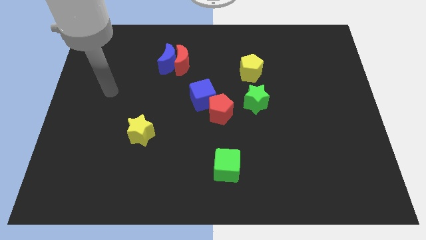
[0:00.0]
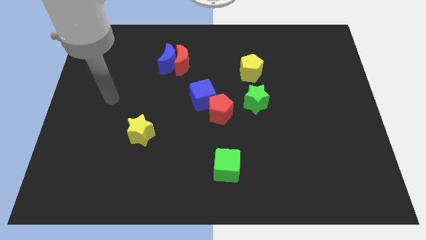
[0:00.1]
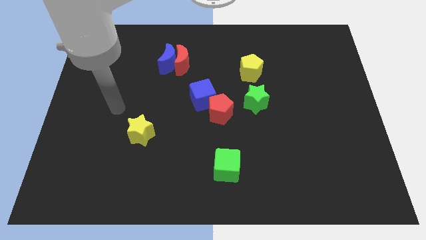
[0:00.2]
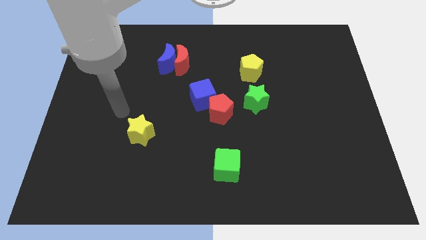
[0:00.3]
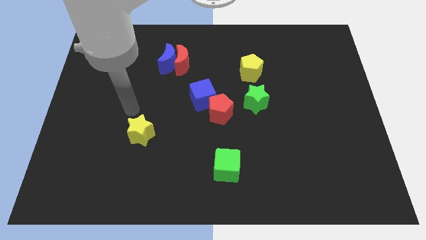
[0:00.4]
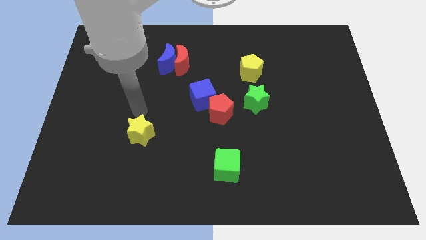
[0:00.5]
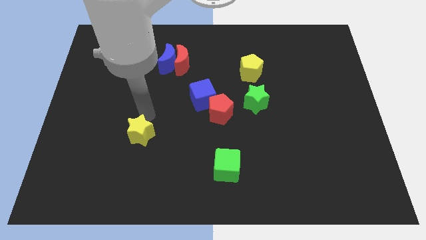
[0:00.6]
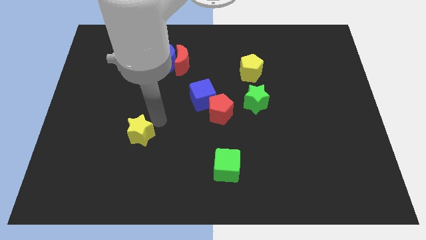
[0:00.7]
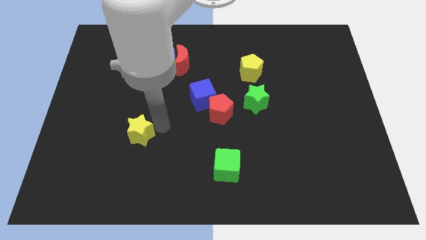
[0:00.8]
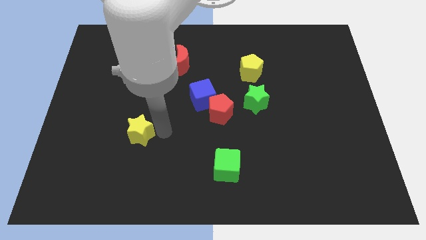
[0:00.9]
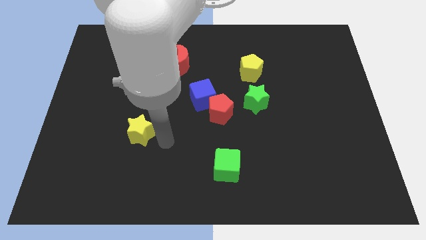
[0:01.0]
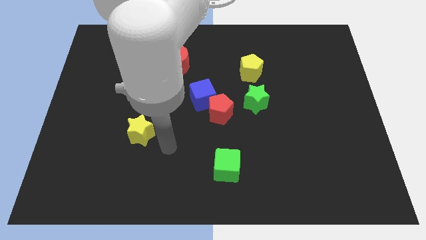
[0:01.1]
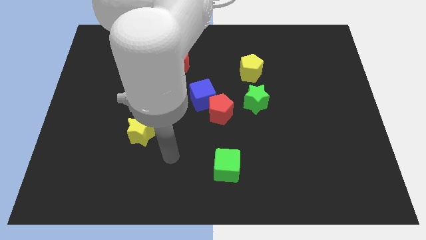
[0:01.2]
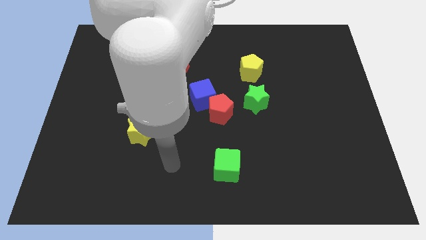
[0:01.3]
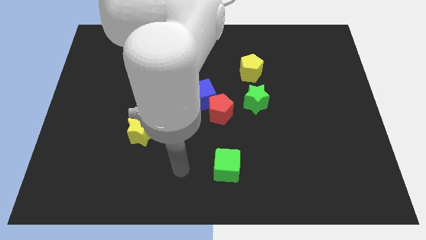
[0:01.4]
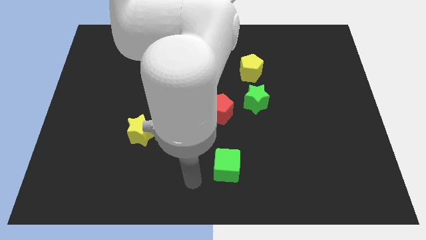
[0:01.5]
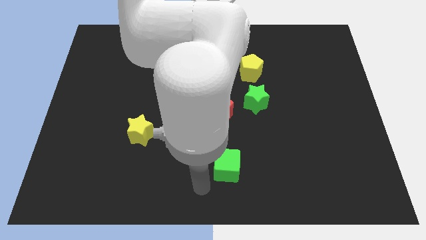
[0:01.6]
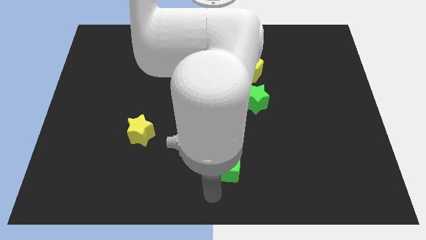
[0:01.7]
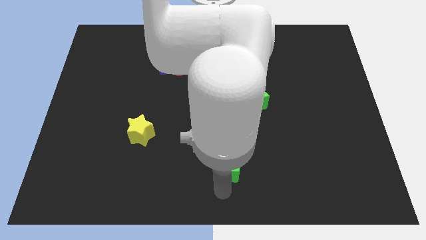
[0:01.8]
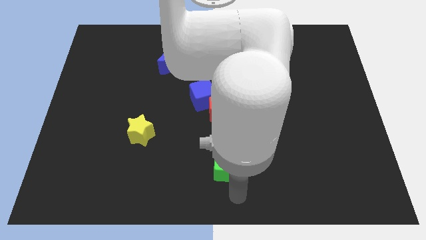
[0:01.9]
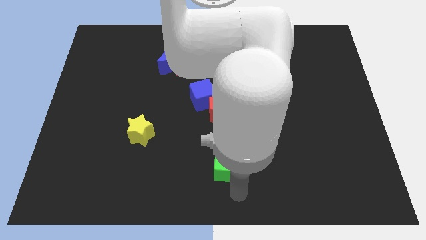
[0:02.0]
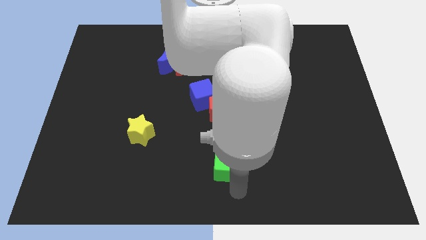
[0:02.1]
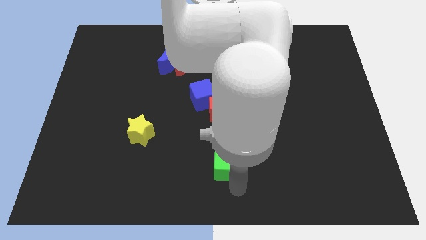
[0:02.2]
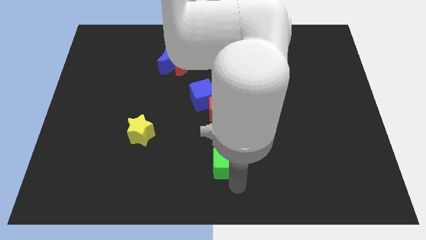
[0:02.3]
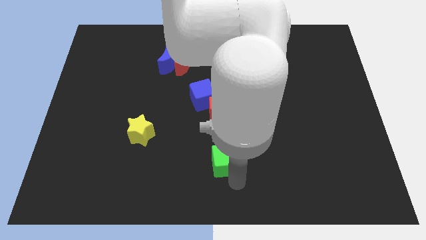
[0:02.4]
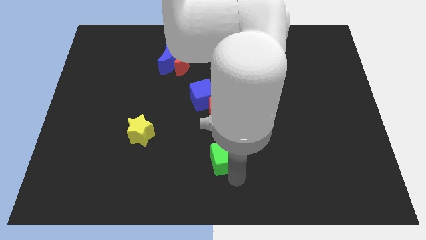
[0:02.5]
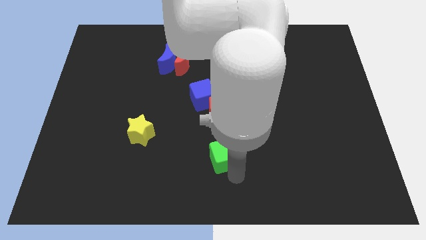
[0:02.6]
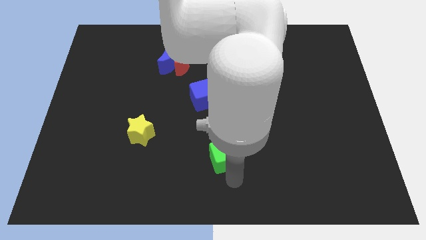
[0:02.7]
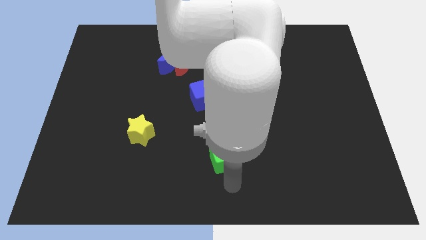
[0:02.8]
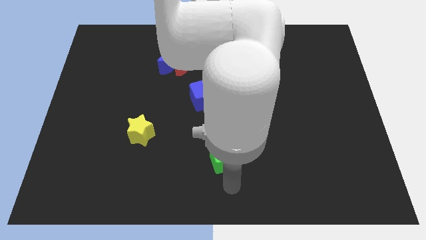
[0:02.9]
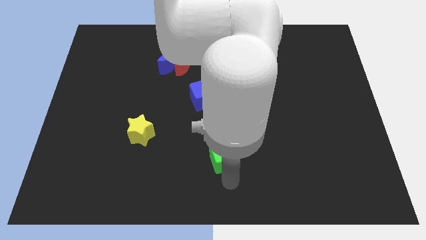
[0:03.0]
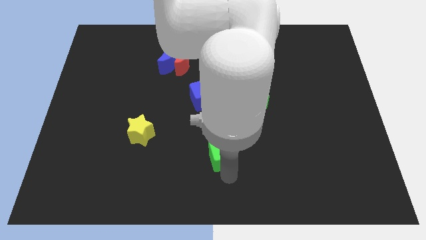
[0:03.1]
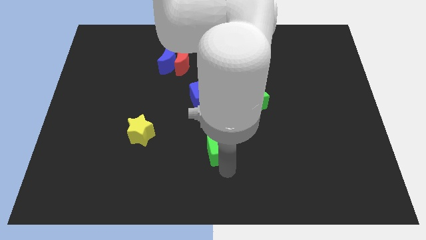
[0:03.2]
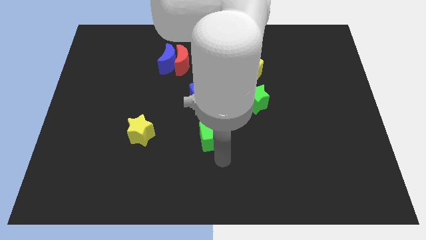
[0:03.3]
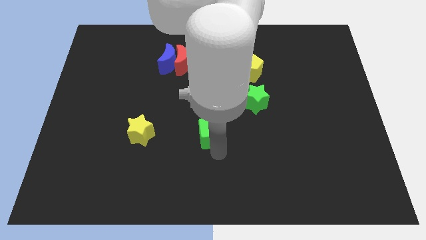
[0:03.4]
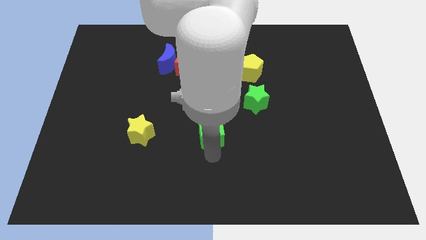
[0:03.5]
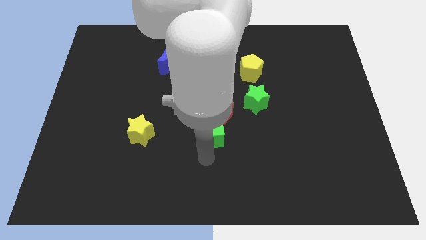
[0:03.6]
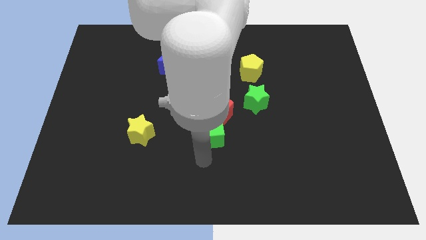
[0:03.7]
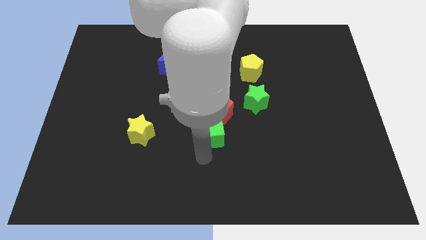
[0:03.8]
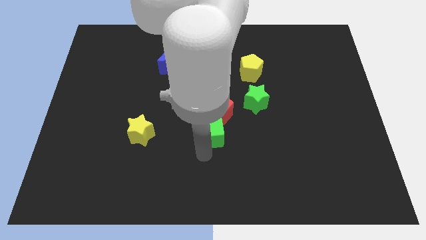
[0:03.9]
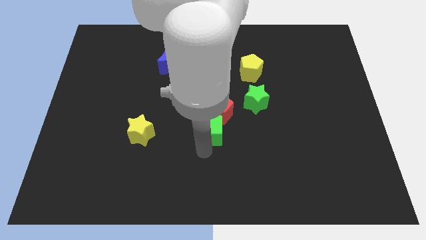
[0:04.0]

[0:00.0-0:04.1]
put the green cube next to the red pentagon

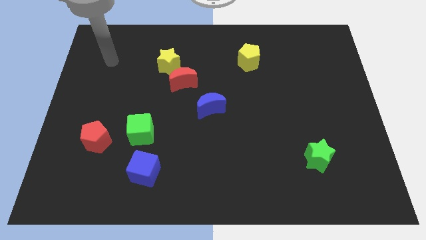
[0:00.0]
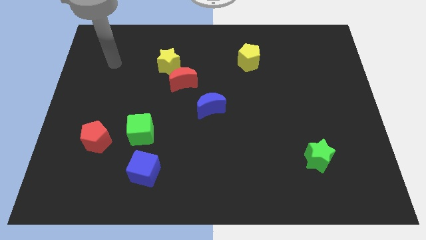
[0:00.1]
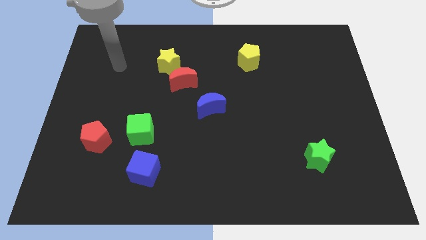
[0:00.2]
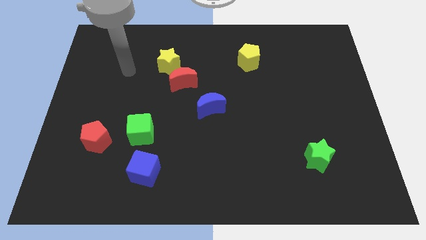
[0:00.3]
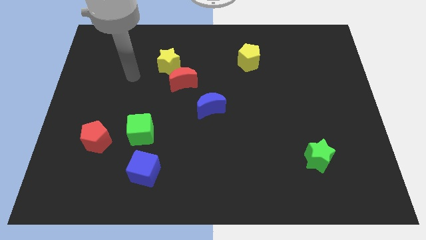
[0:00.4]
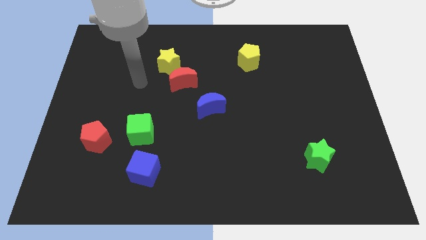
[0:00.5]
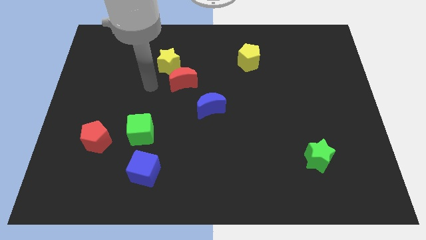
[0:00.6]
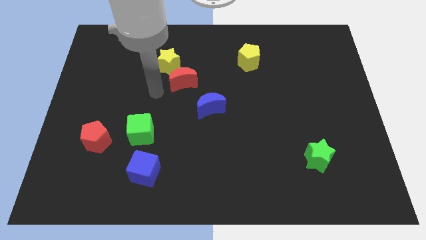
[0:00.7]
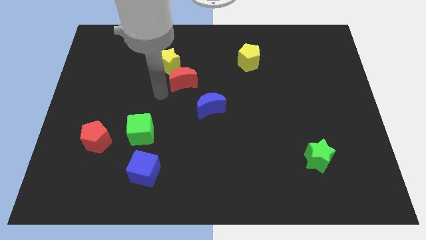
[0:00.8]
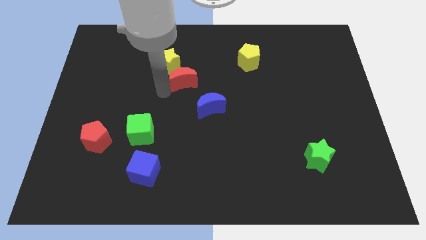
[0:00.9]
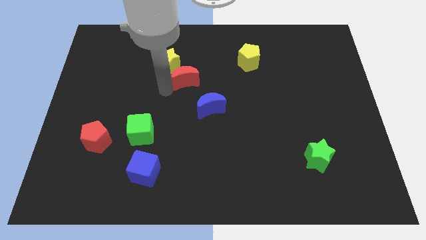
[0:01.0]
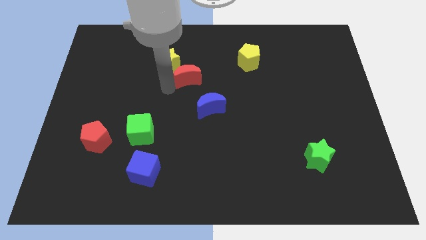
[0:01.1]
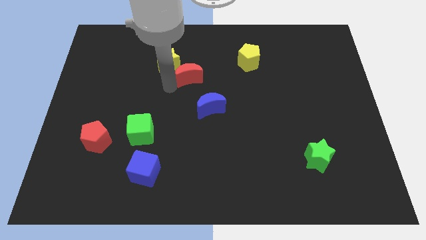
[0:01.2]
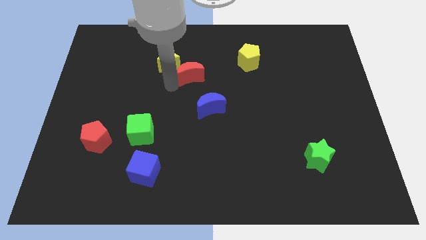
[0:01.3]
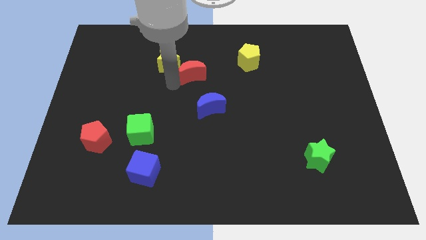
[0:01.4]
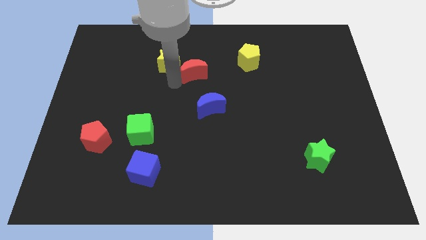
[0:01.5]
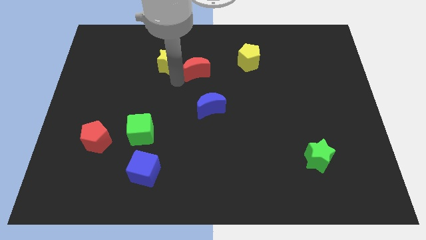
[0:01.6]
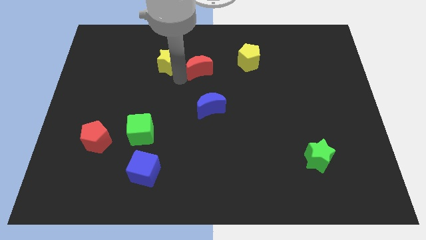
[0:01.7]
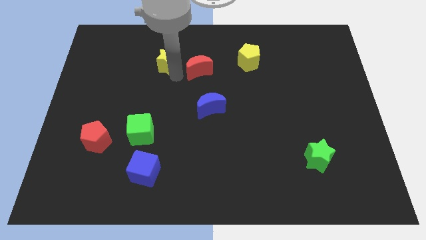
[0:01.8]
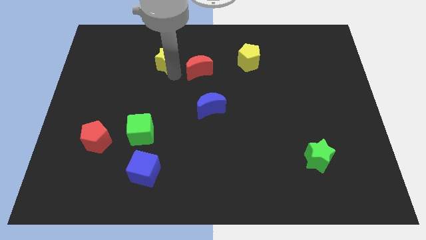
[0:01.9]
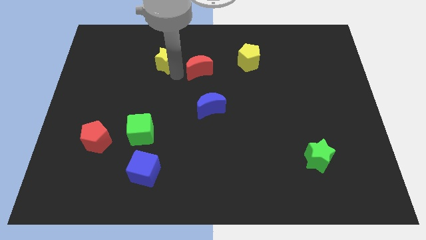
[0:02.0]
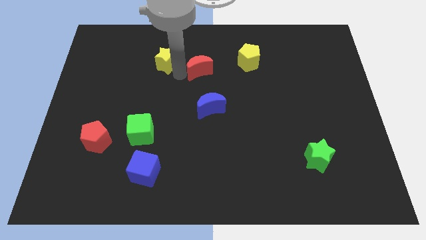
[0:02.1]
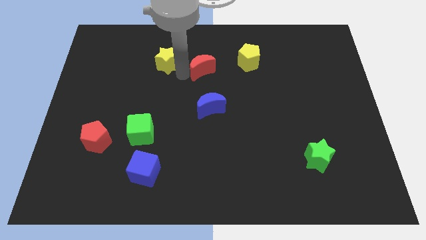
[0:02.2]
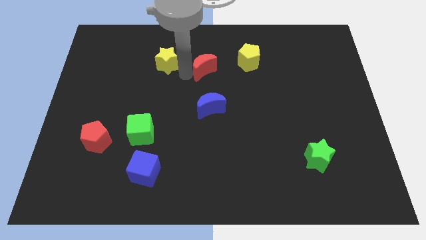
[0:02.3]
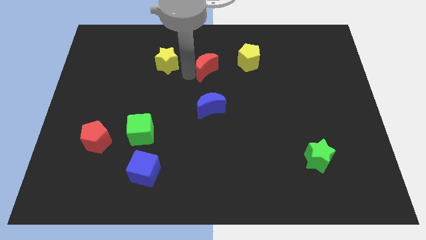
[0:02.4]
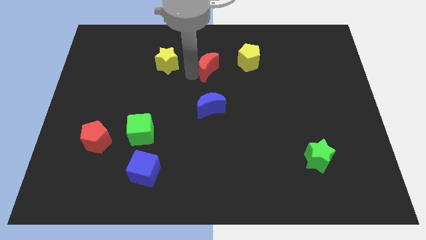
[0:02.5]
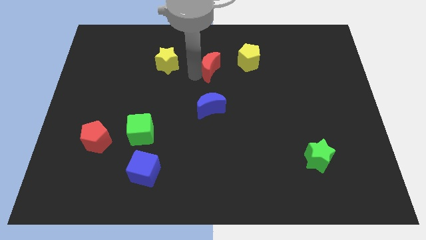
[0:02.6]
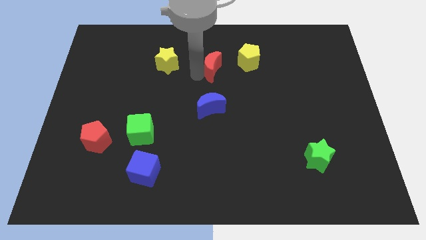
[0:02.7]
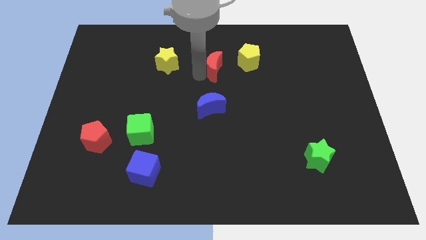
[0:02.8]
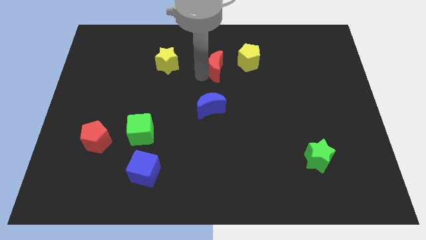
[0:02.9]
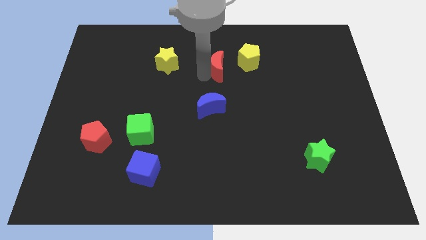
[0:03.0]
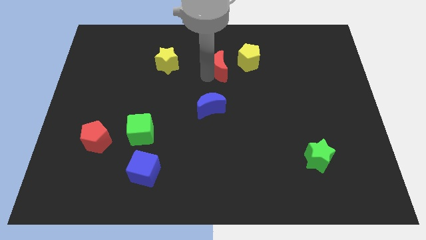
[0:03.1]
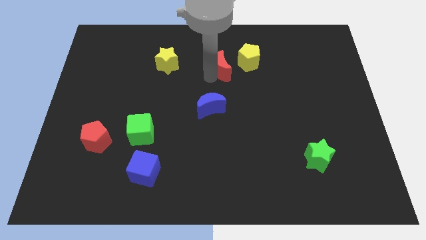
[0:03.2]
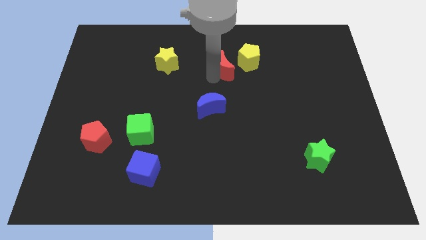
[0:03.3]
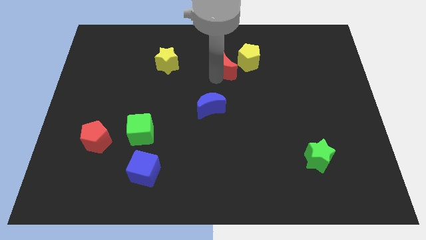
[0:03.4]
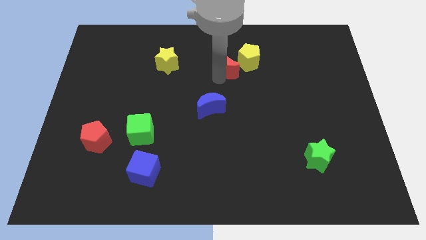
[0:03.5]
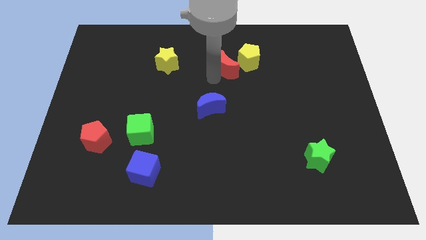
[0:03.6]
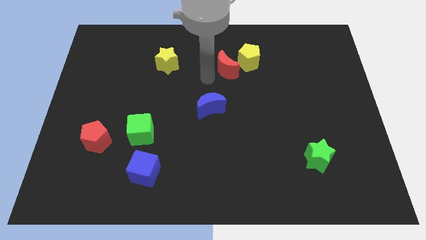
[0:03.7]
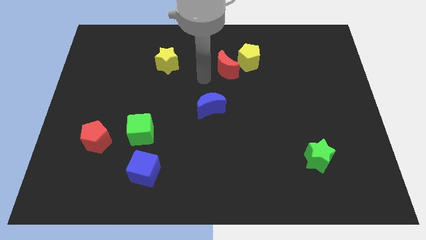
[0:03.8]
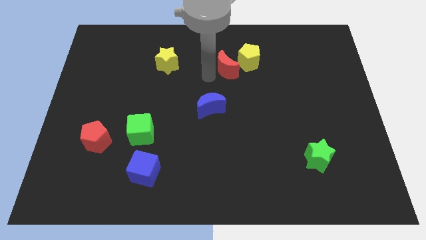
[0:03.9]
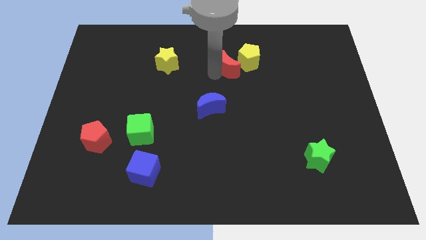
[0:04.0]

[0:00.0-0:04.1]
move the red moon next to the yellow pentagon
